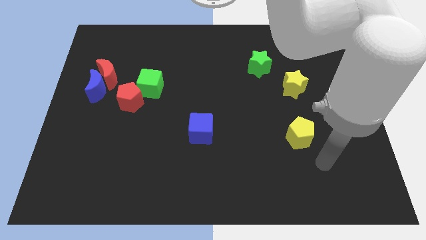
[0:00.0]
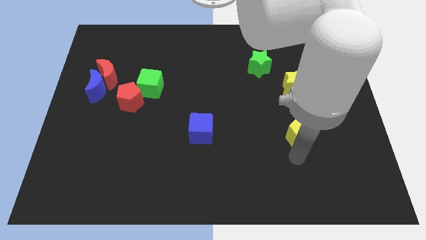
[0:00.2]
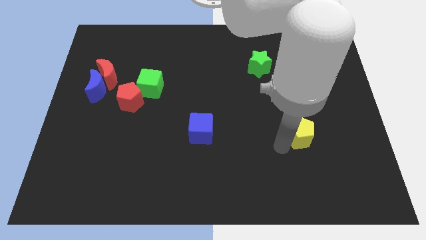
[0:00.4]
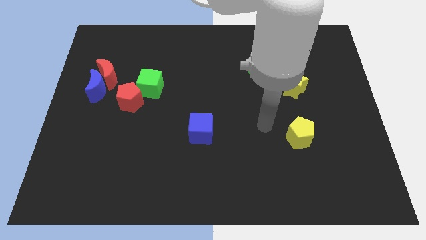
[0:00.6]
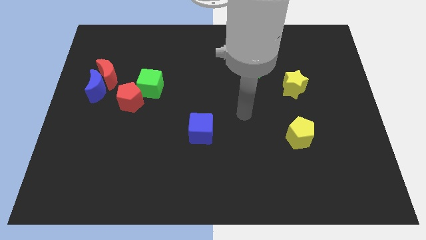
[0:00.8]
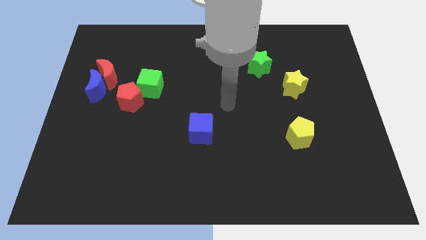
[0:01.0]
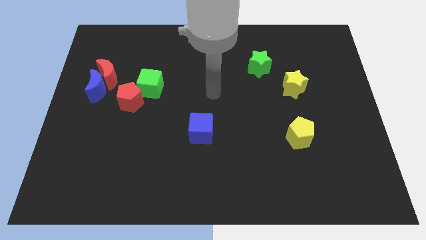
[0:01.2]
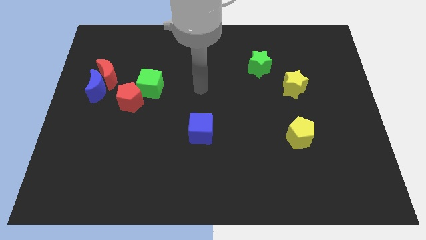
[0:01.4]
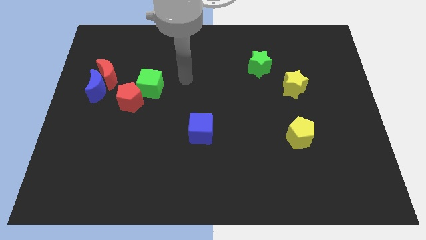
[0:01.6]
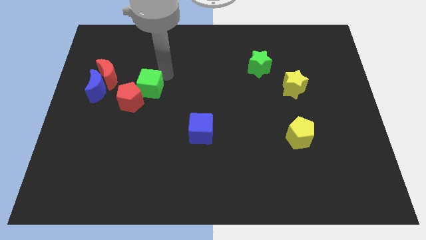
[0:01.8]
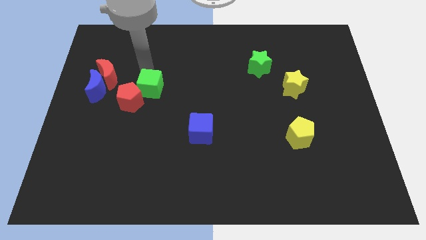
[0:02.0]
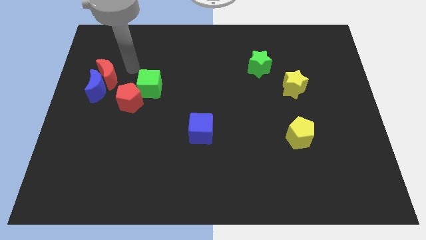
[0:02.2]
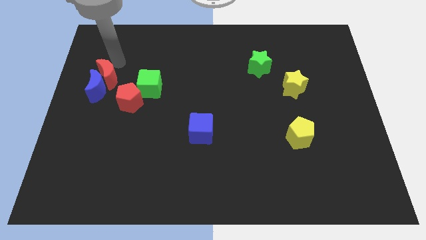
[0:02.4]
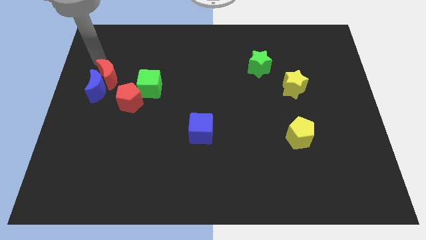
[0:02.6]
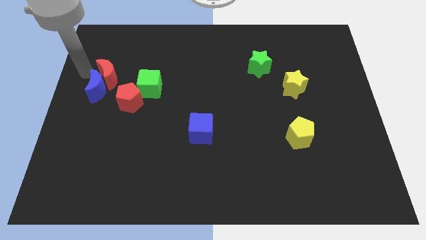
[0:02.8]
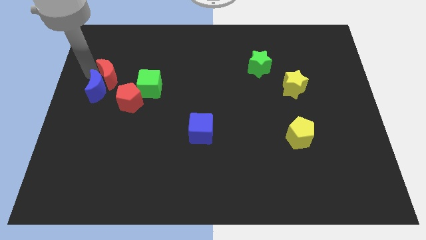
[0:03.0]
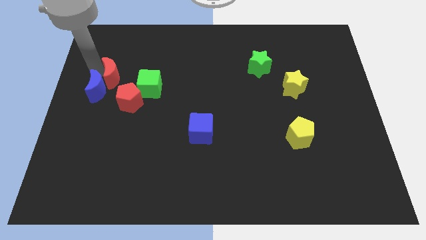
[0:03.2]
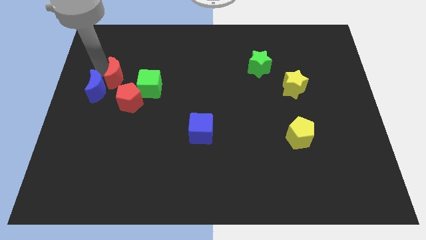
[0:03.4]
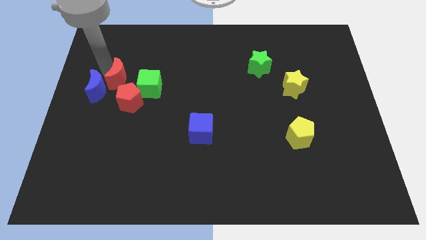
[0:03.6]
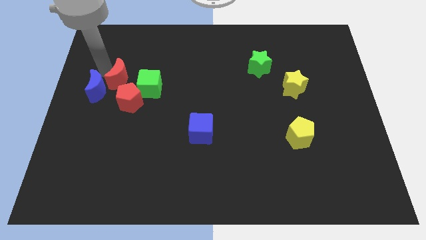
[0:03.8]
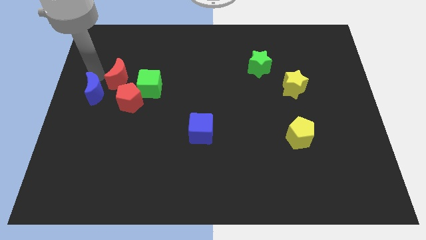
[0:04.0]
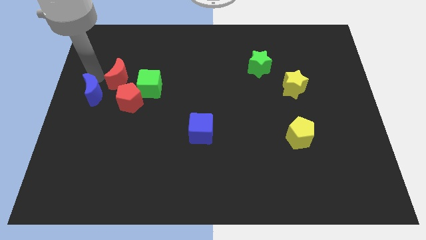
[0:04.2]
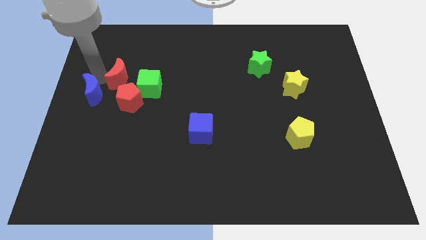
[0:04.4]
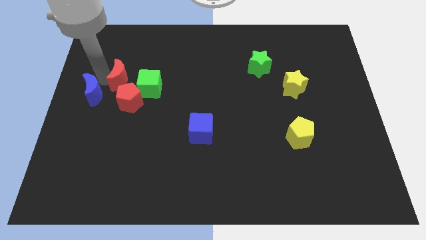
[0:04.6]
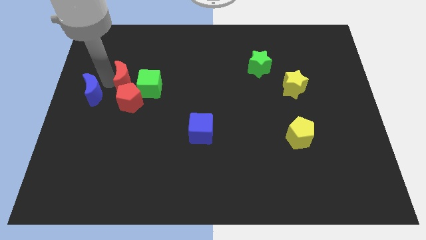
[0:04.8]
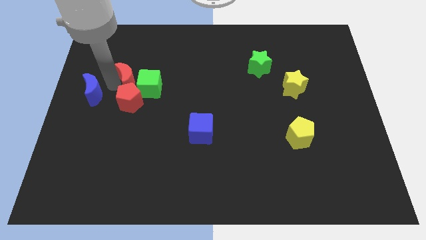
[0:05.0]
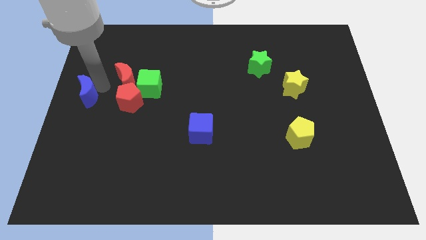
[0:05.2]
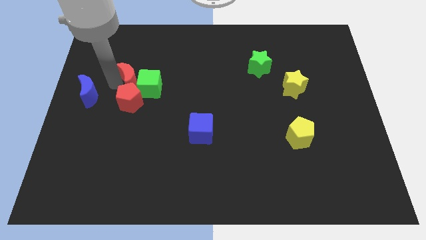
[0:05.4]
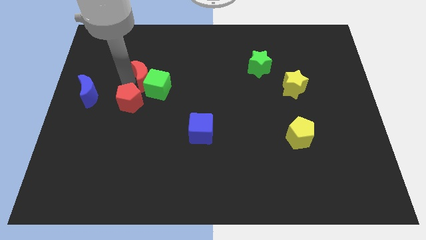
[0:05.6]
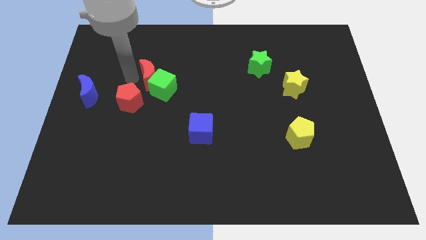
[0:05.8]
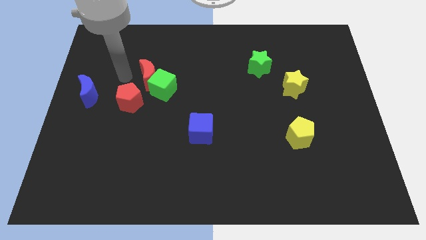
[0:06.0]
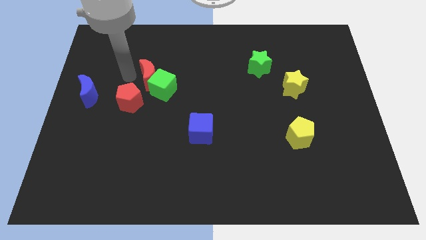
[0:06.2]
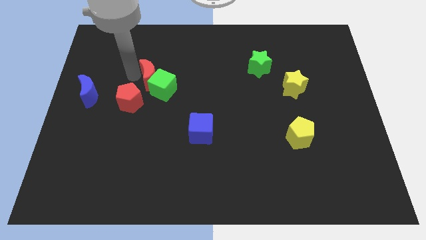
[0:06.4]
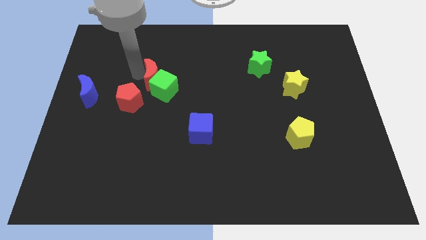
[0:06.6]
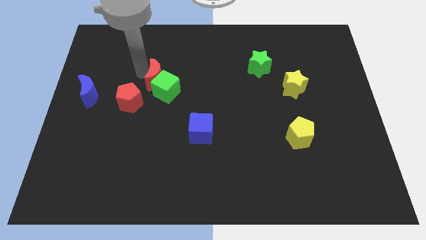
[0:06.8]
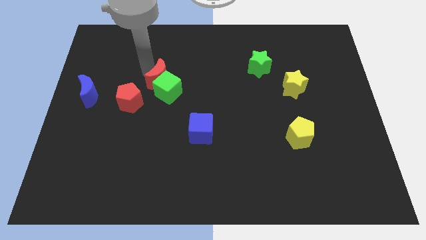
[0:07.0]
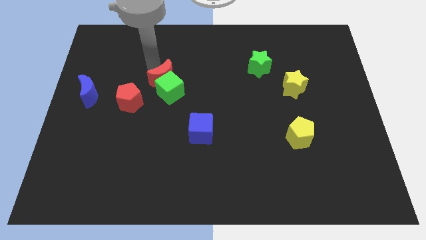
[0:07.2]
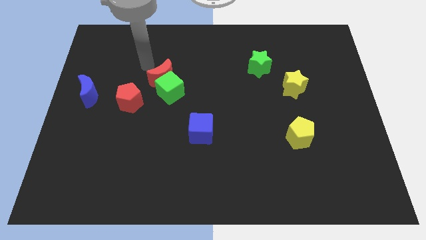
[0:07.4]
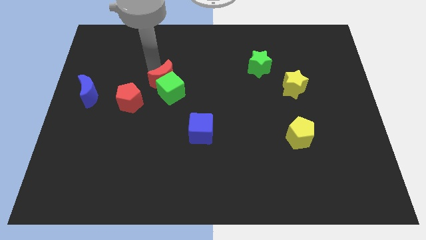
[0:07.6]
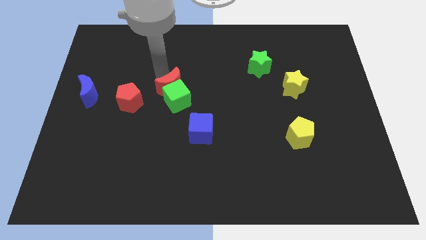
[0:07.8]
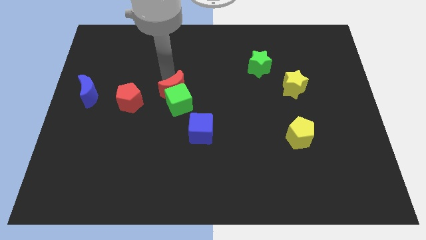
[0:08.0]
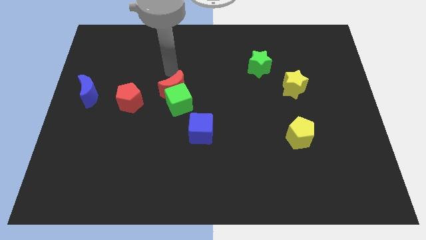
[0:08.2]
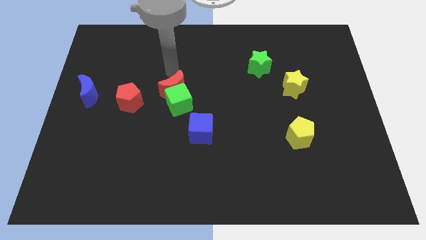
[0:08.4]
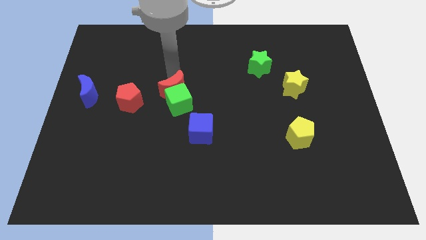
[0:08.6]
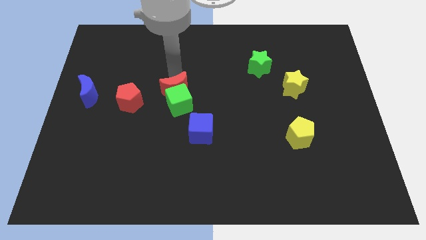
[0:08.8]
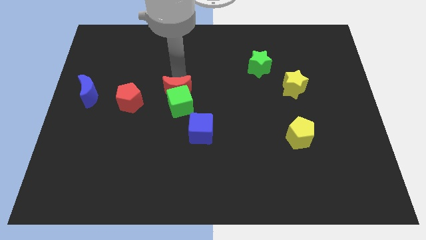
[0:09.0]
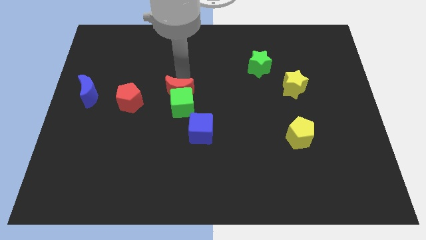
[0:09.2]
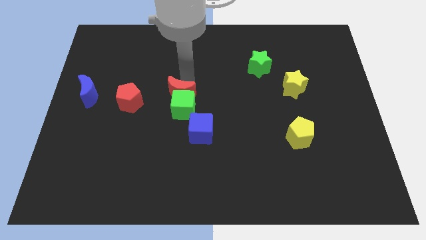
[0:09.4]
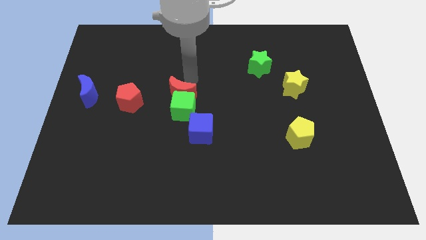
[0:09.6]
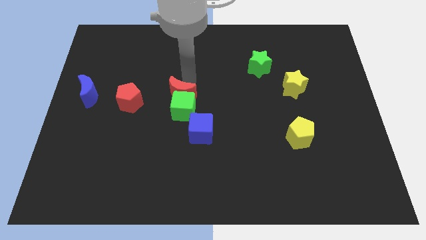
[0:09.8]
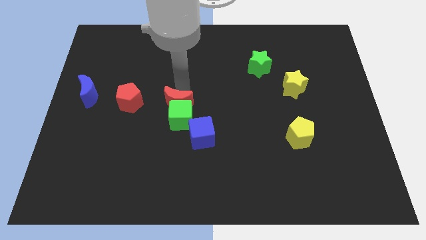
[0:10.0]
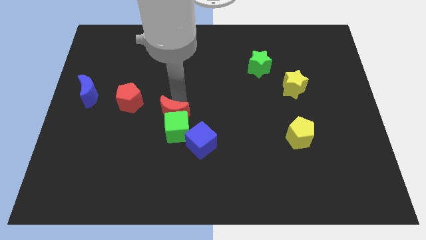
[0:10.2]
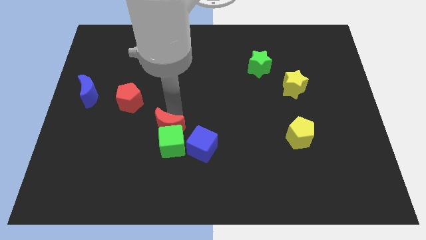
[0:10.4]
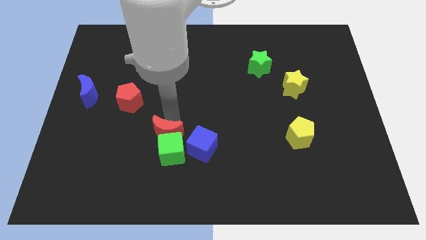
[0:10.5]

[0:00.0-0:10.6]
put the red moon to the left of the blue cube

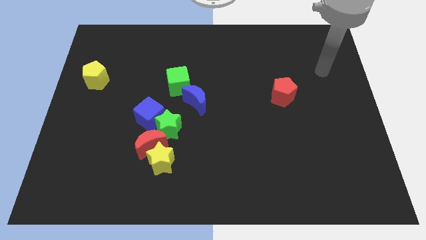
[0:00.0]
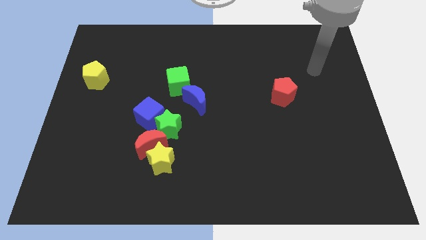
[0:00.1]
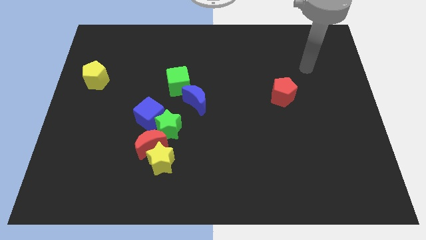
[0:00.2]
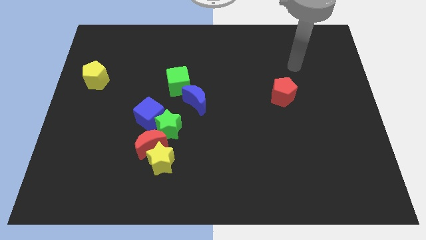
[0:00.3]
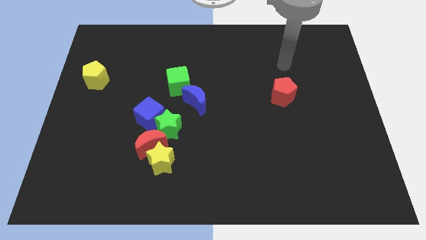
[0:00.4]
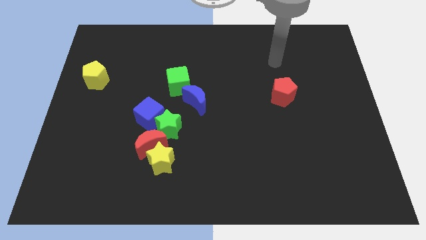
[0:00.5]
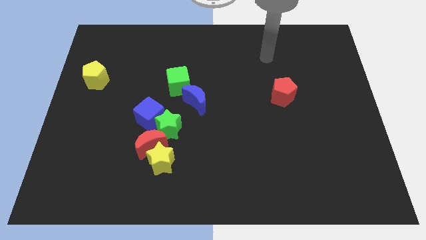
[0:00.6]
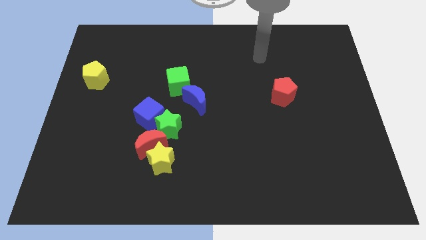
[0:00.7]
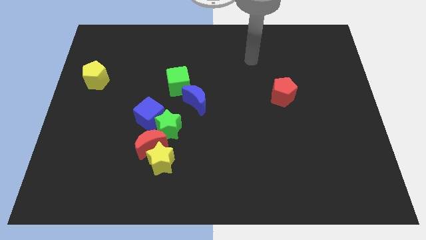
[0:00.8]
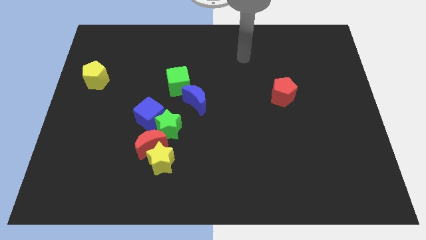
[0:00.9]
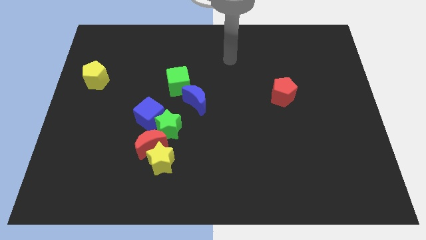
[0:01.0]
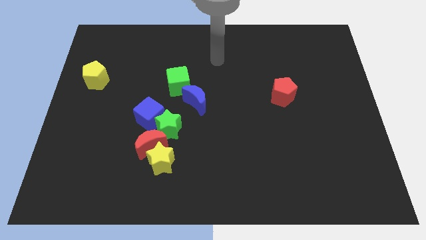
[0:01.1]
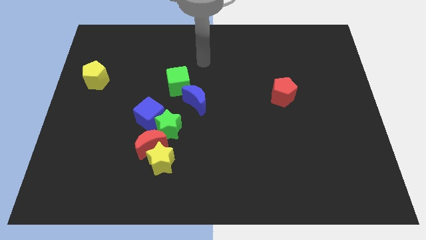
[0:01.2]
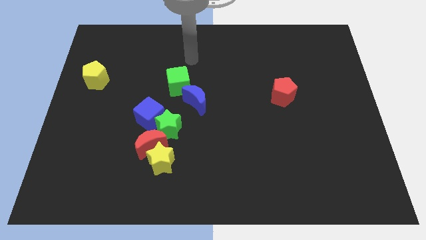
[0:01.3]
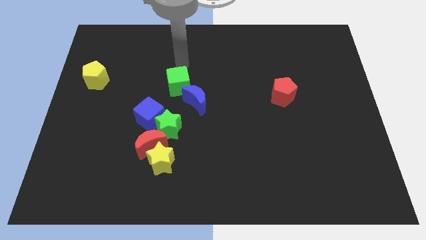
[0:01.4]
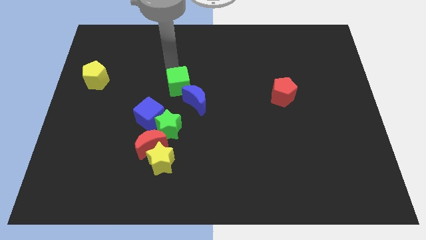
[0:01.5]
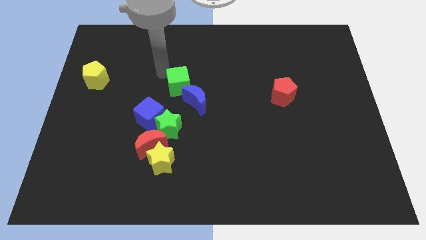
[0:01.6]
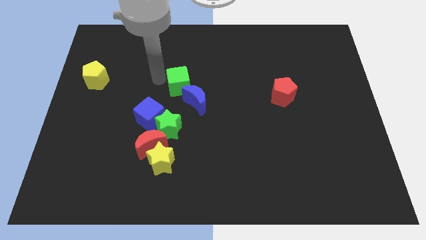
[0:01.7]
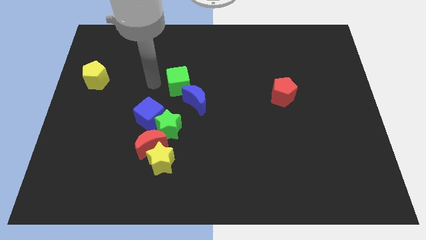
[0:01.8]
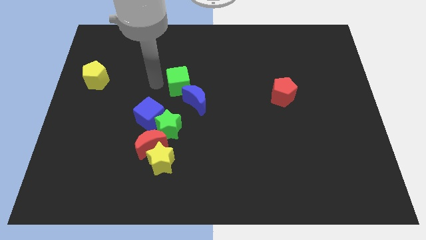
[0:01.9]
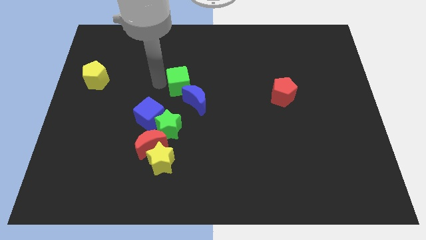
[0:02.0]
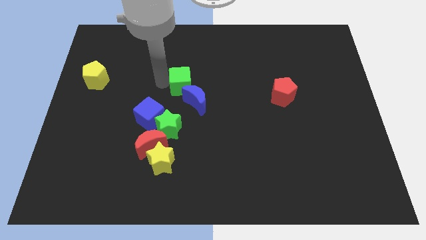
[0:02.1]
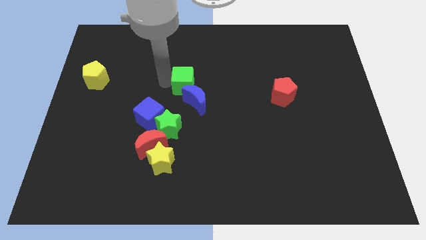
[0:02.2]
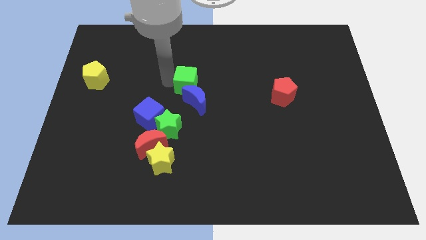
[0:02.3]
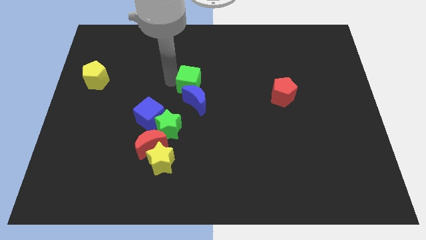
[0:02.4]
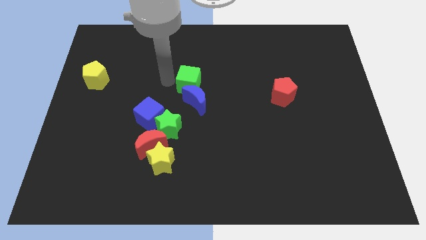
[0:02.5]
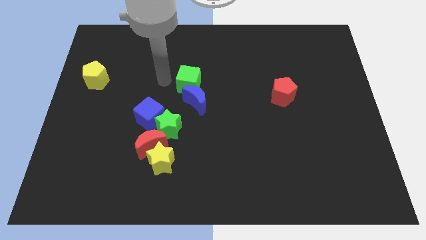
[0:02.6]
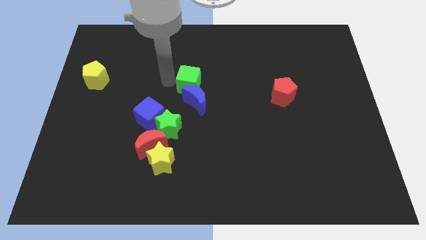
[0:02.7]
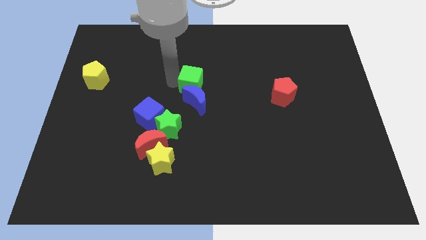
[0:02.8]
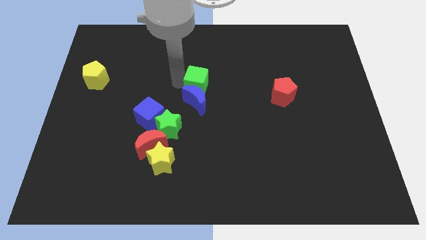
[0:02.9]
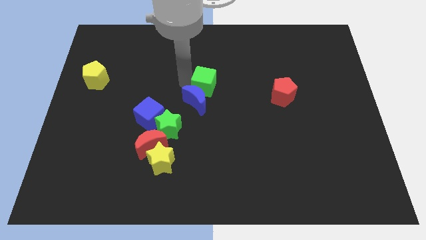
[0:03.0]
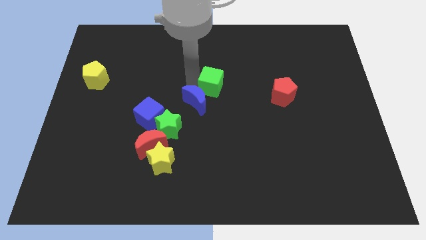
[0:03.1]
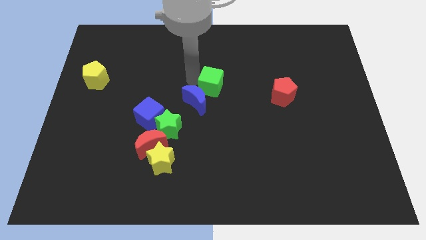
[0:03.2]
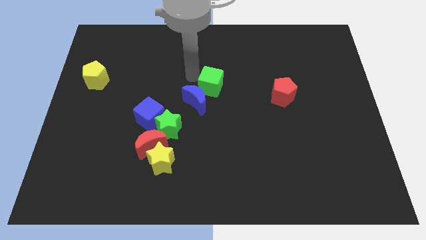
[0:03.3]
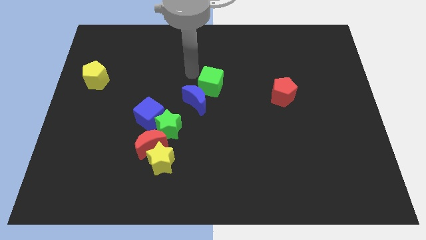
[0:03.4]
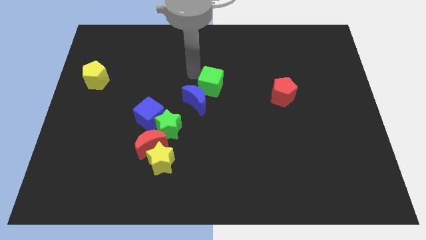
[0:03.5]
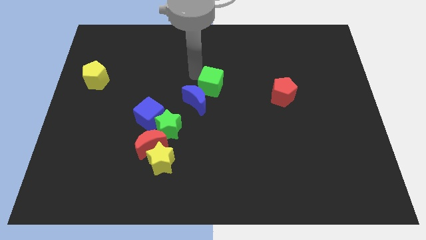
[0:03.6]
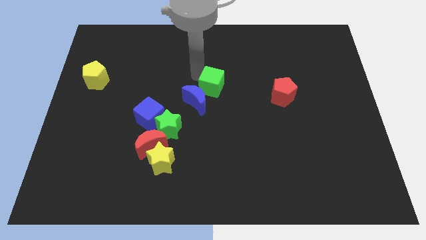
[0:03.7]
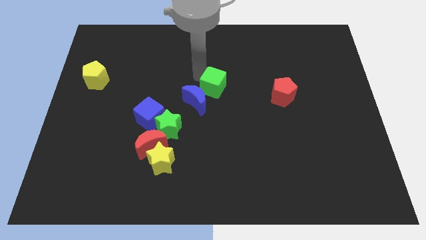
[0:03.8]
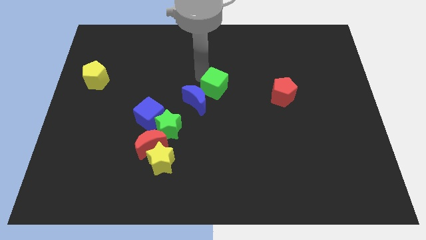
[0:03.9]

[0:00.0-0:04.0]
move the green cube just right of the blue moon
